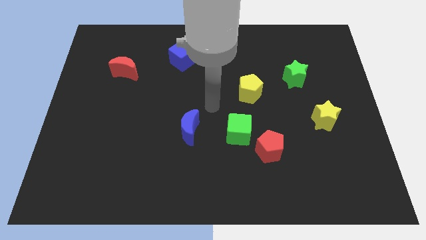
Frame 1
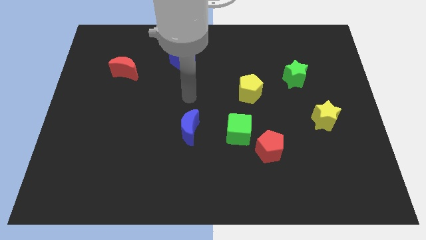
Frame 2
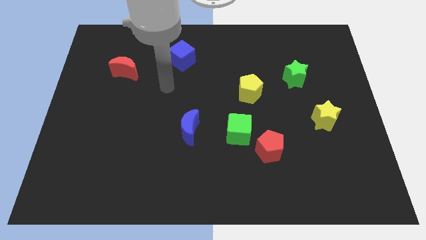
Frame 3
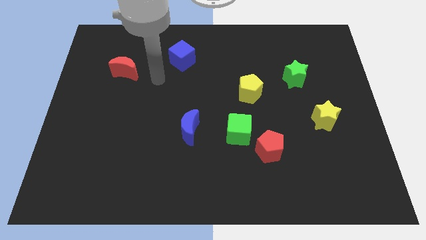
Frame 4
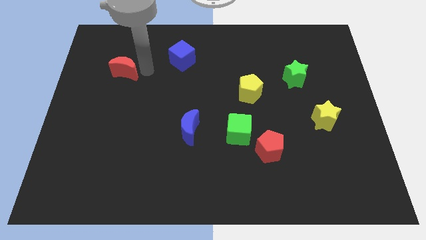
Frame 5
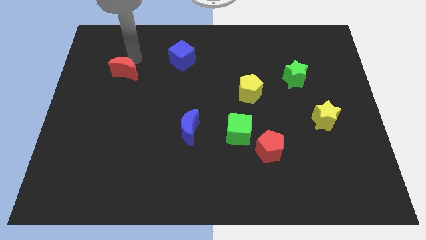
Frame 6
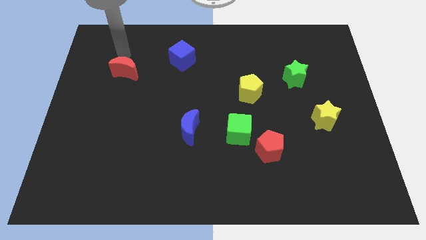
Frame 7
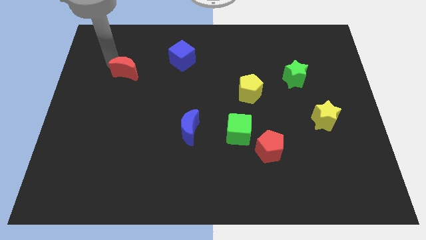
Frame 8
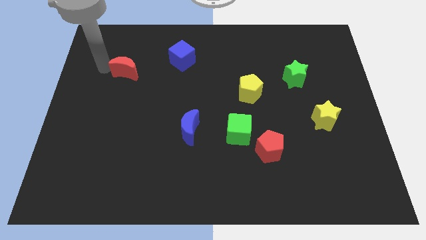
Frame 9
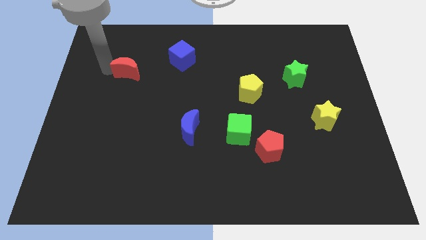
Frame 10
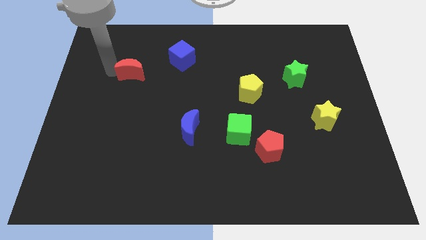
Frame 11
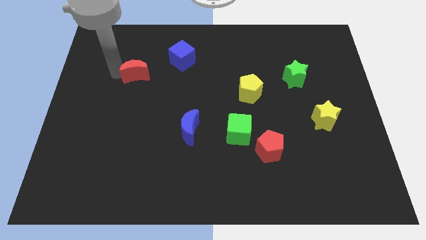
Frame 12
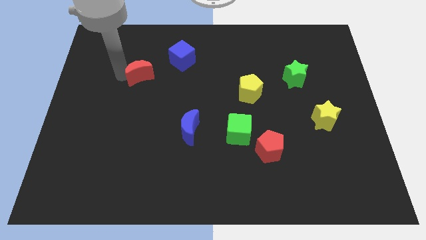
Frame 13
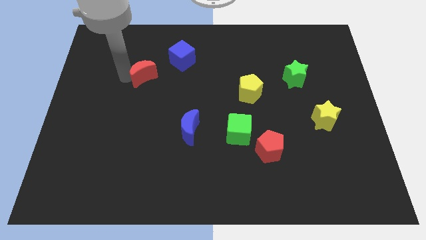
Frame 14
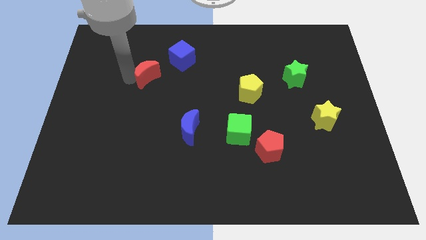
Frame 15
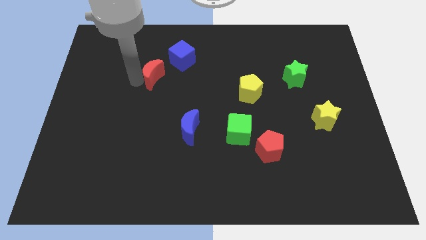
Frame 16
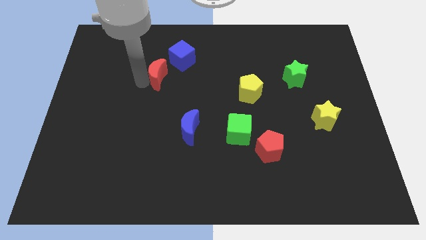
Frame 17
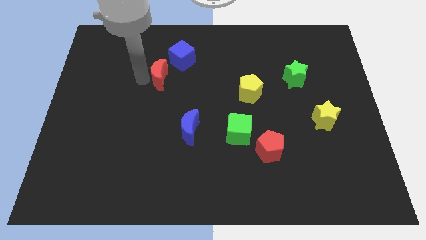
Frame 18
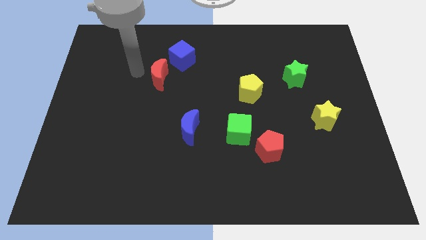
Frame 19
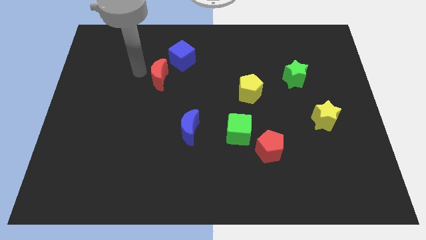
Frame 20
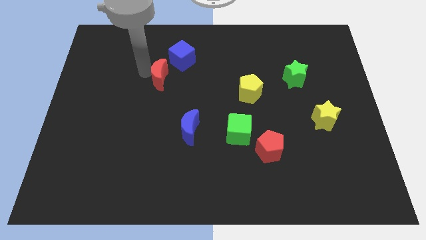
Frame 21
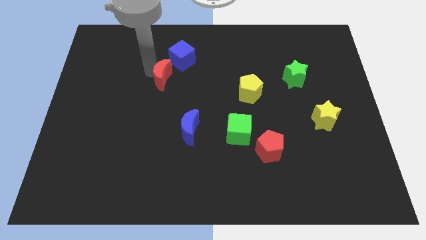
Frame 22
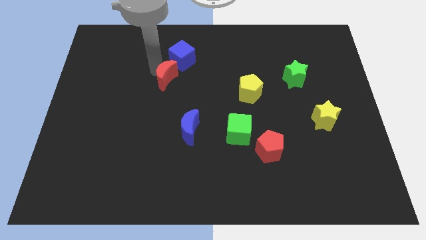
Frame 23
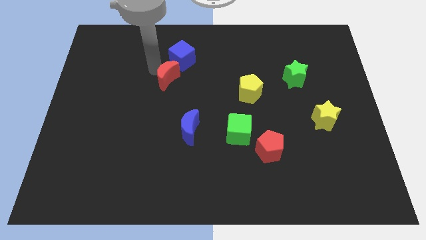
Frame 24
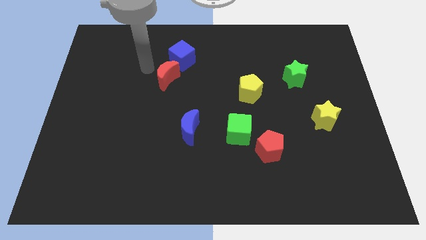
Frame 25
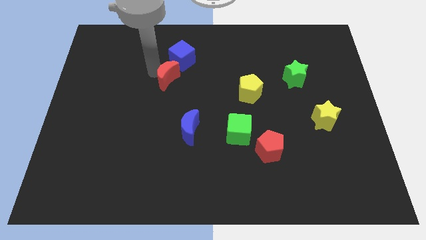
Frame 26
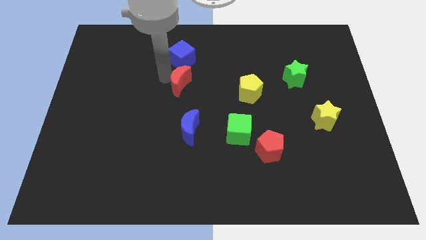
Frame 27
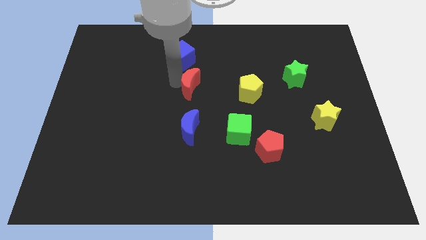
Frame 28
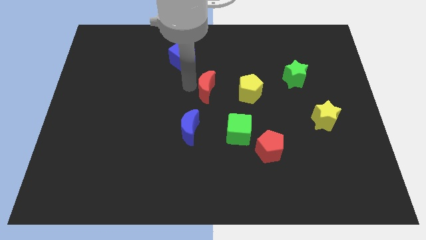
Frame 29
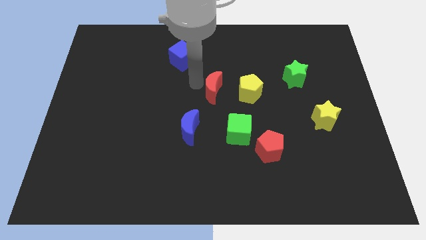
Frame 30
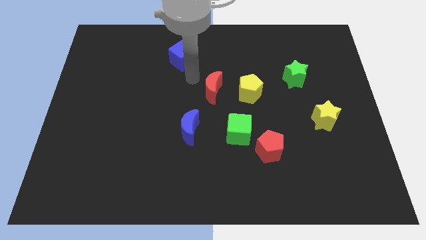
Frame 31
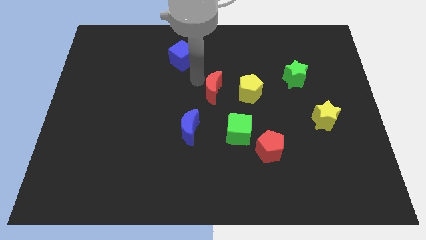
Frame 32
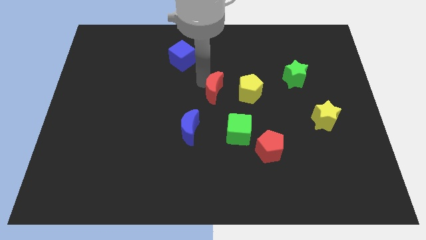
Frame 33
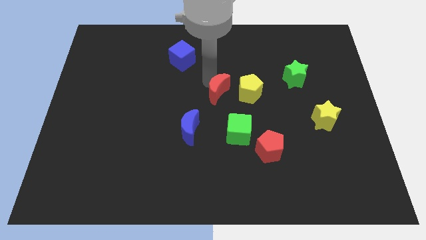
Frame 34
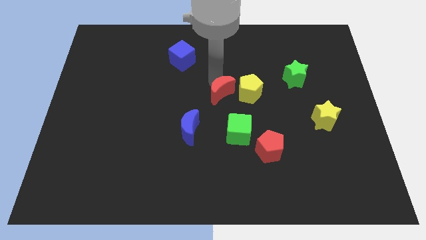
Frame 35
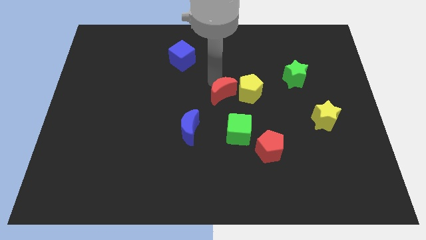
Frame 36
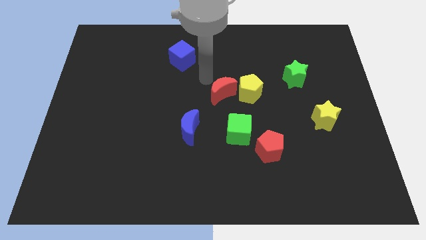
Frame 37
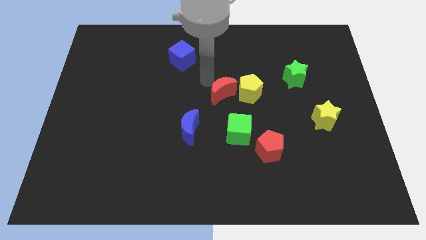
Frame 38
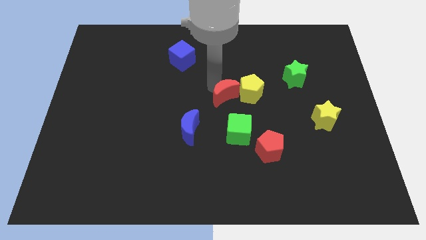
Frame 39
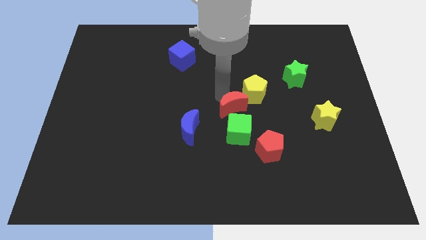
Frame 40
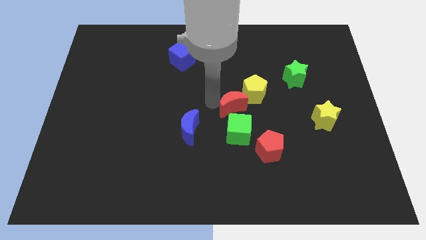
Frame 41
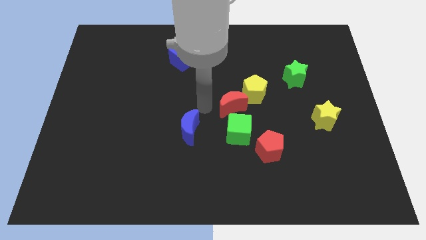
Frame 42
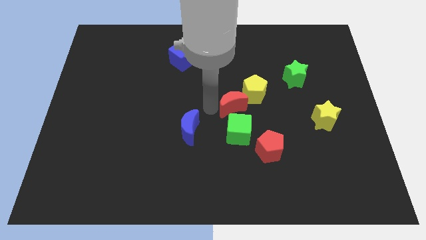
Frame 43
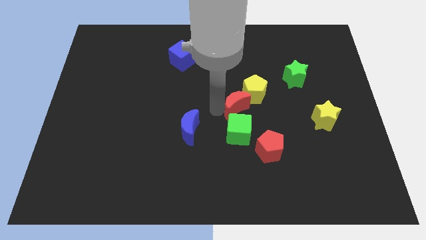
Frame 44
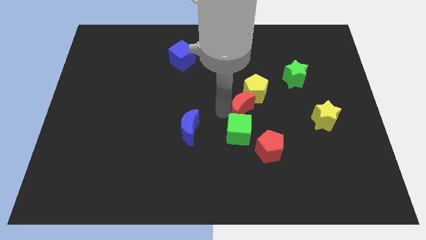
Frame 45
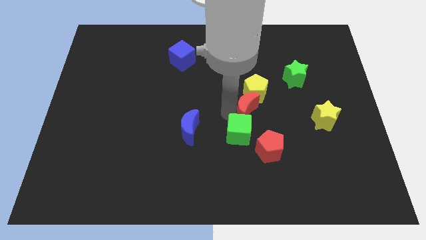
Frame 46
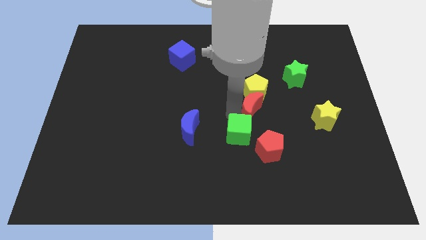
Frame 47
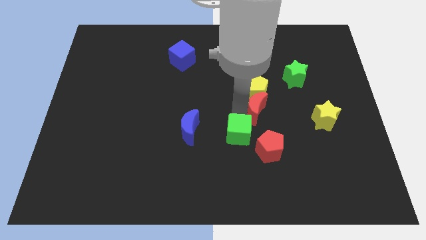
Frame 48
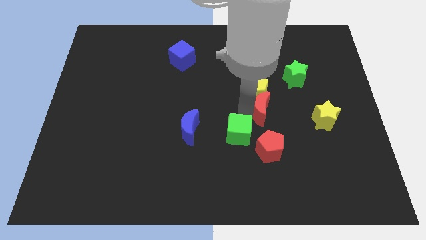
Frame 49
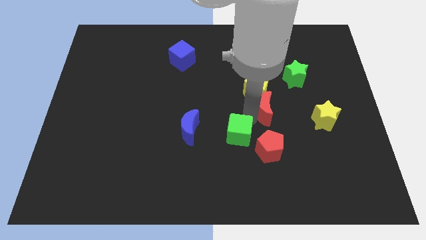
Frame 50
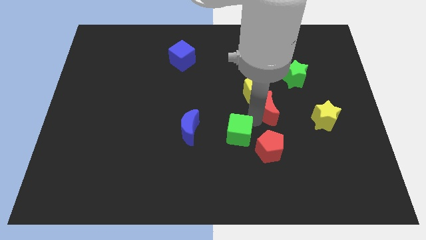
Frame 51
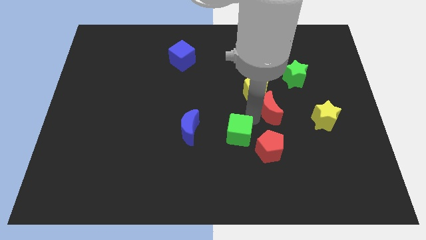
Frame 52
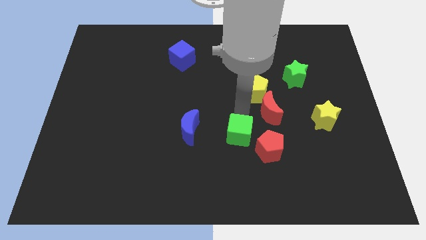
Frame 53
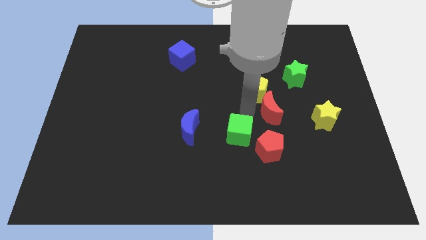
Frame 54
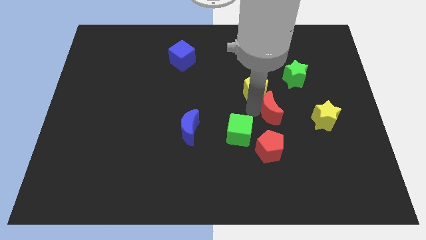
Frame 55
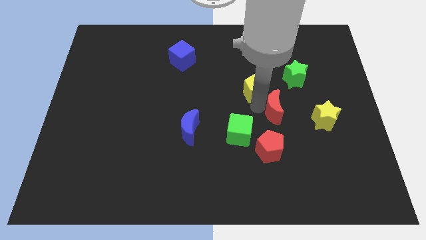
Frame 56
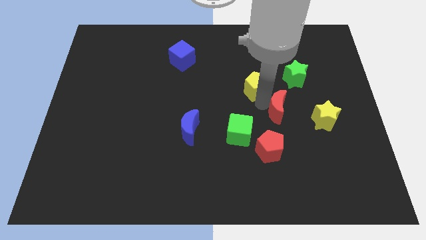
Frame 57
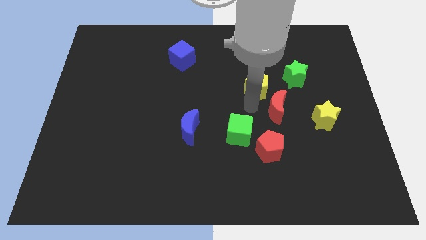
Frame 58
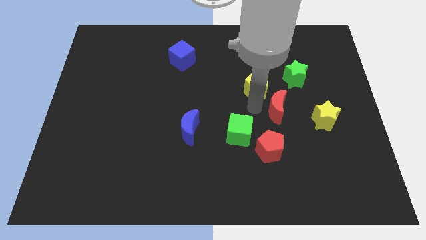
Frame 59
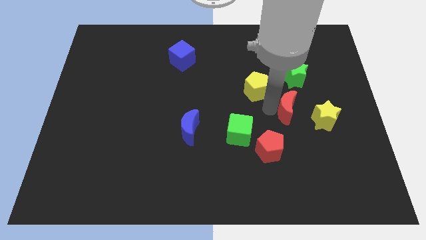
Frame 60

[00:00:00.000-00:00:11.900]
move the red moon below the green star

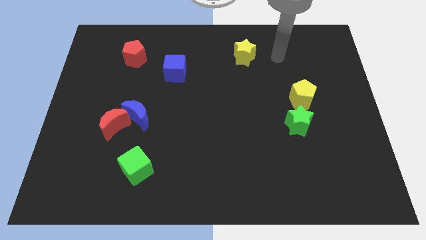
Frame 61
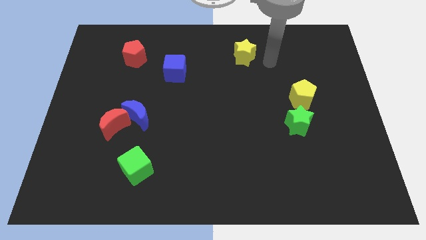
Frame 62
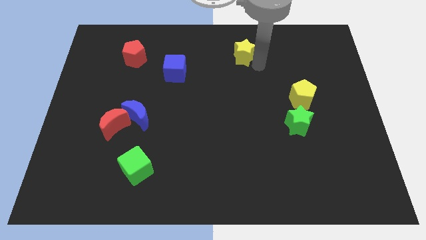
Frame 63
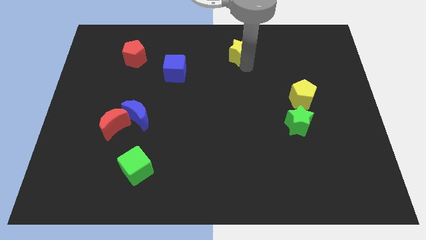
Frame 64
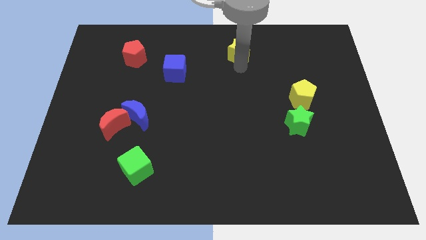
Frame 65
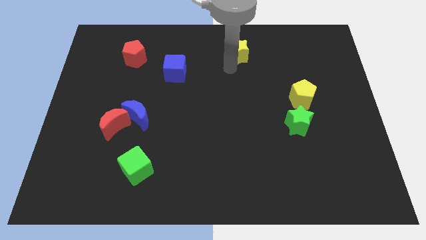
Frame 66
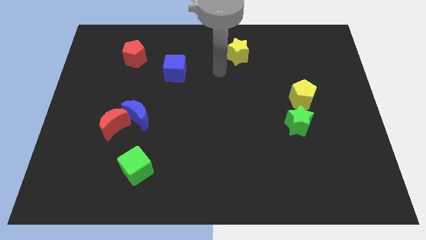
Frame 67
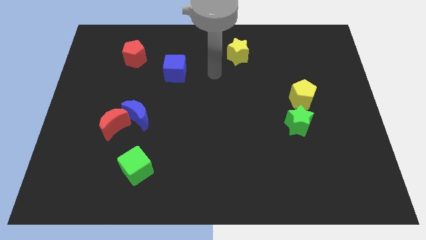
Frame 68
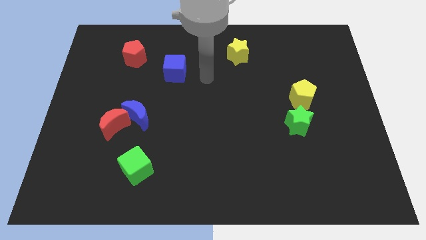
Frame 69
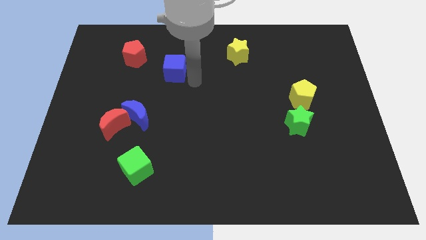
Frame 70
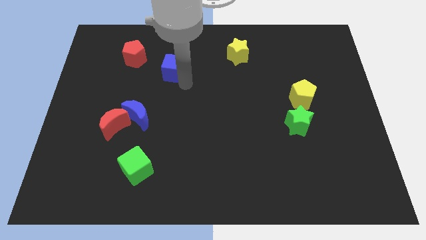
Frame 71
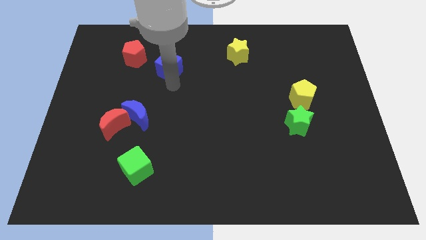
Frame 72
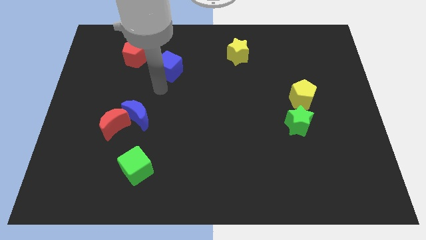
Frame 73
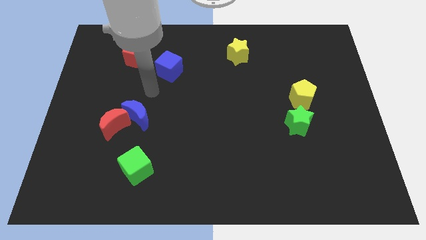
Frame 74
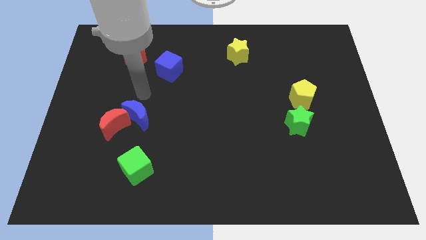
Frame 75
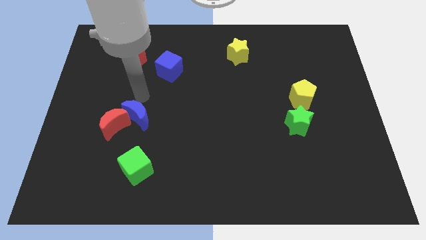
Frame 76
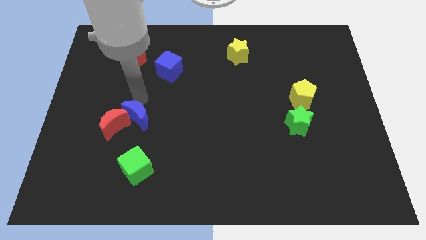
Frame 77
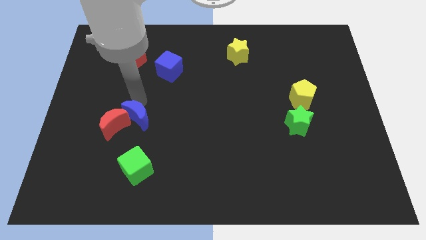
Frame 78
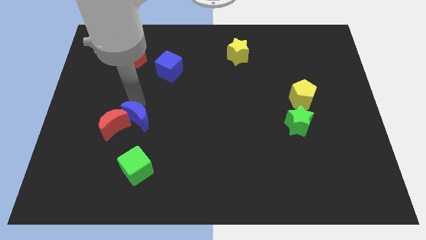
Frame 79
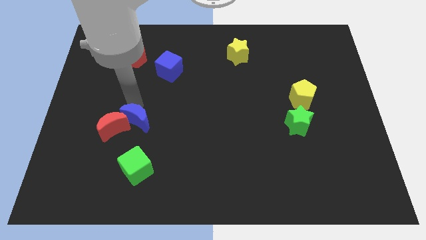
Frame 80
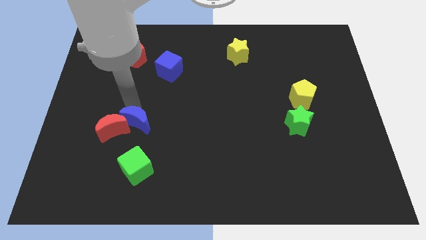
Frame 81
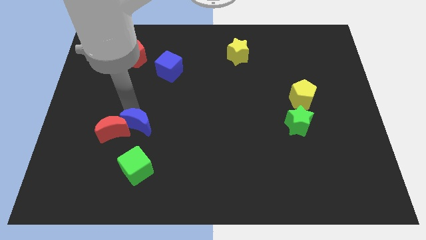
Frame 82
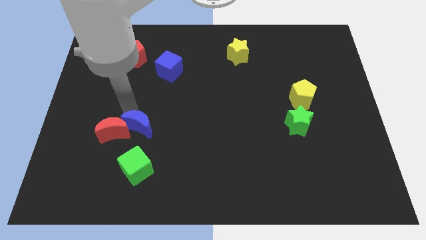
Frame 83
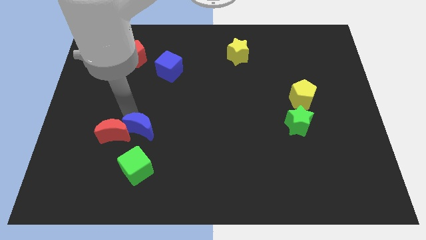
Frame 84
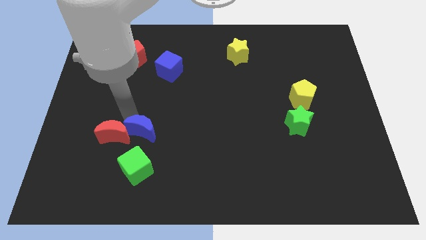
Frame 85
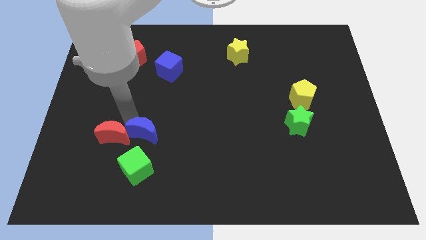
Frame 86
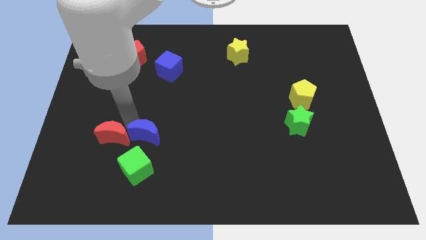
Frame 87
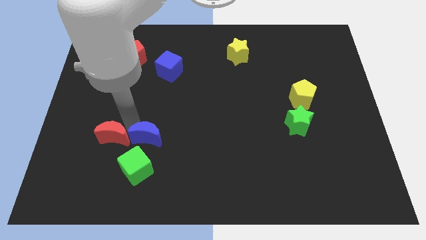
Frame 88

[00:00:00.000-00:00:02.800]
put the blue moon to the bottom right side of the red moon
